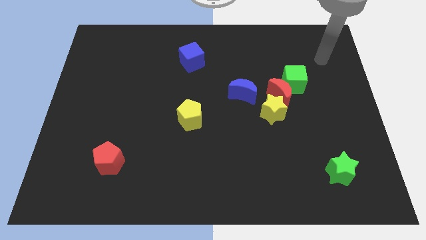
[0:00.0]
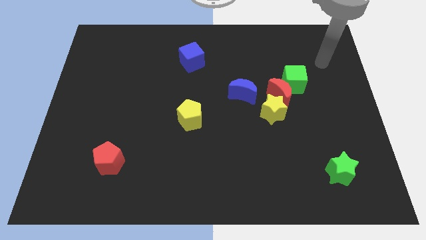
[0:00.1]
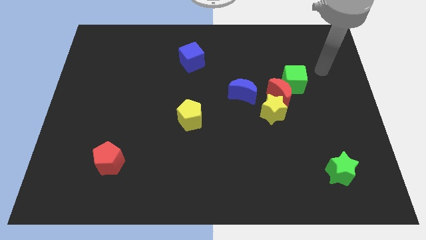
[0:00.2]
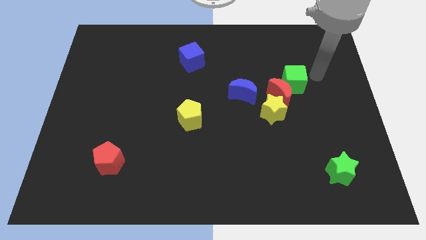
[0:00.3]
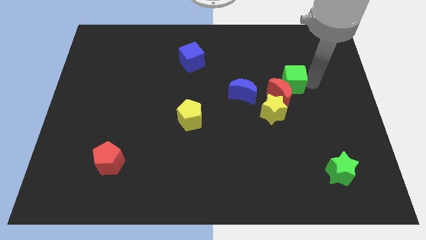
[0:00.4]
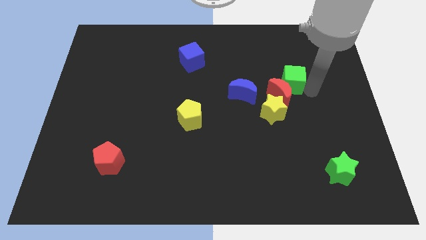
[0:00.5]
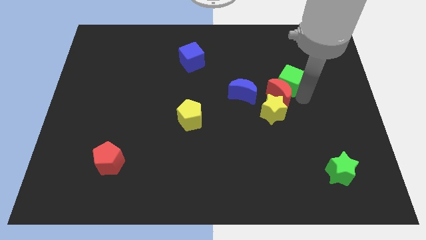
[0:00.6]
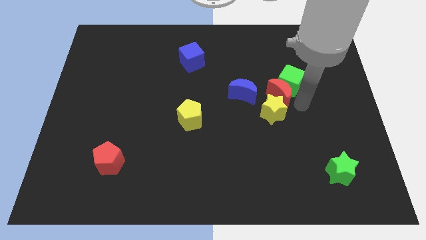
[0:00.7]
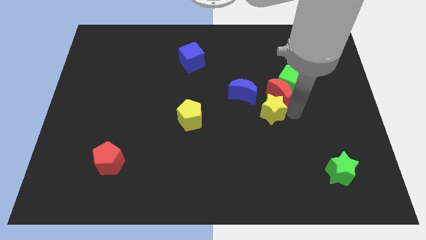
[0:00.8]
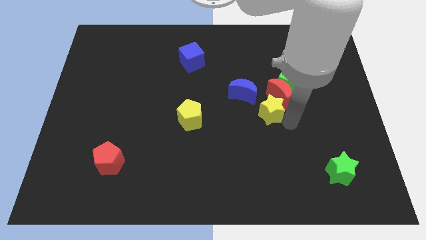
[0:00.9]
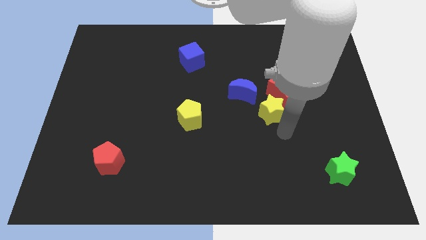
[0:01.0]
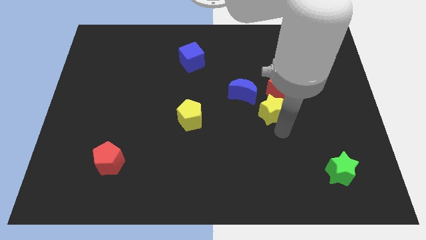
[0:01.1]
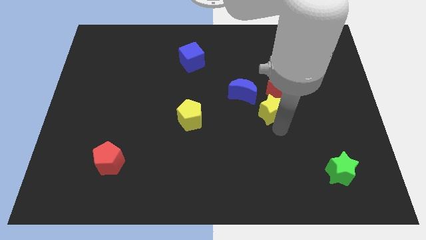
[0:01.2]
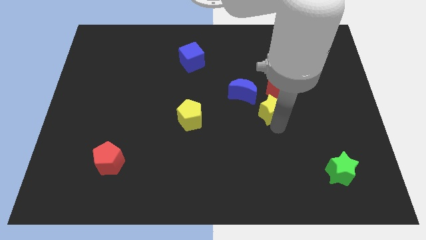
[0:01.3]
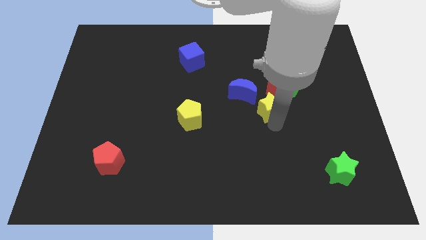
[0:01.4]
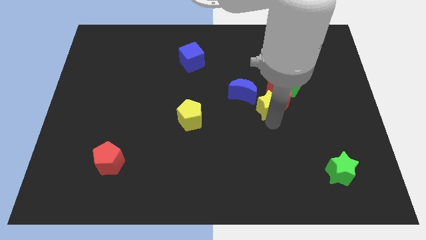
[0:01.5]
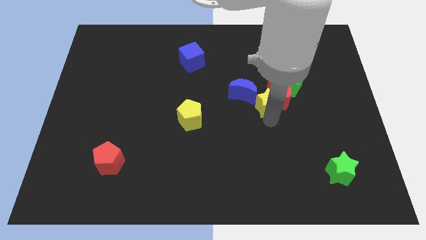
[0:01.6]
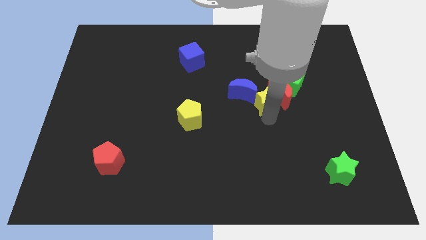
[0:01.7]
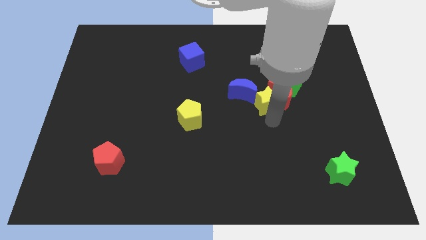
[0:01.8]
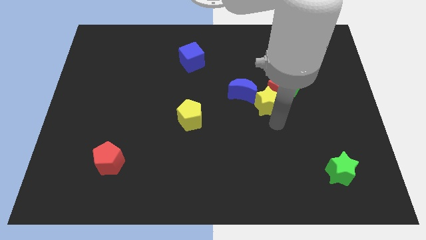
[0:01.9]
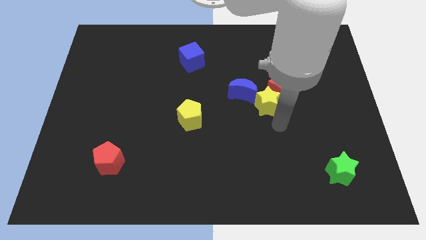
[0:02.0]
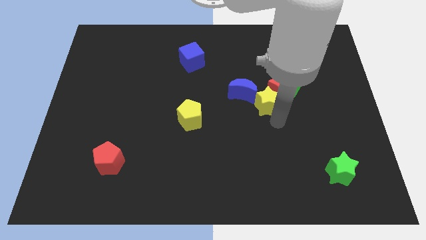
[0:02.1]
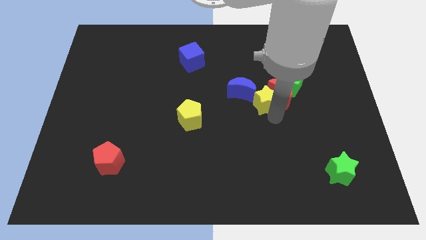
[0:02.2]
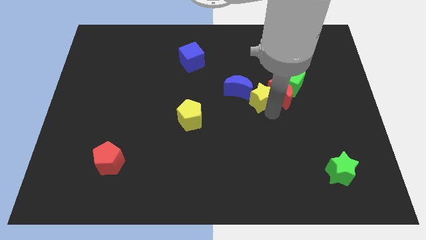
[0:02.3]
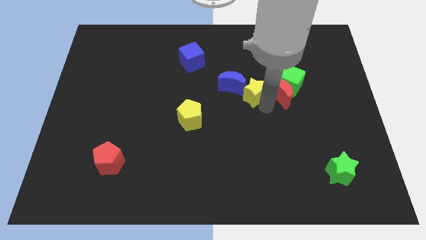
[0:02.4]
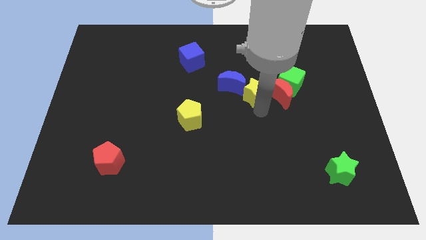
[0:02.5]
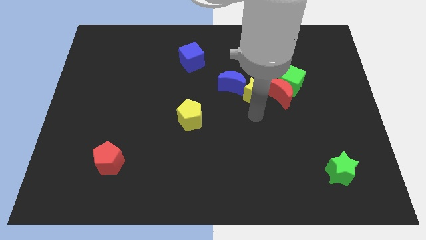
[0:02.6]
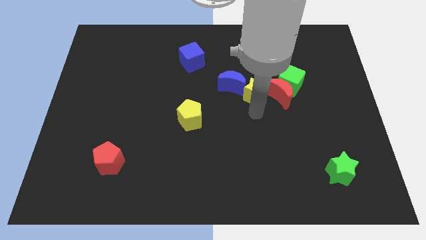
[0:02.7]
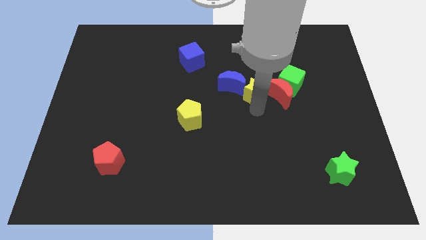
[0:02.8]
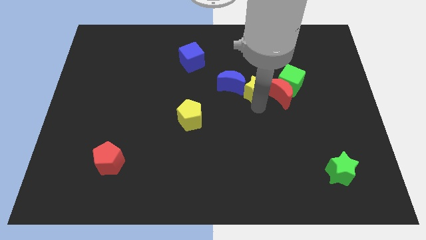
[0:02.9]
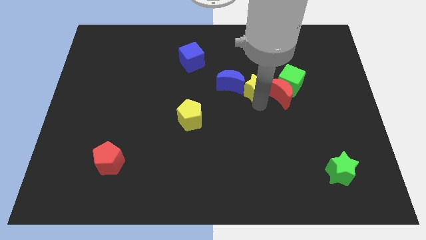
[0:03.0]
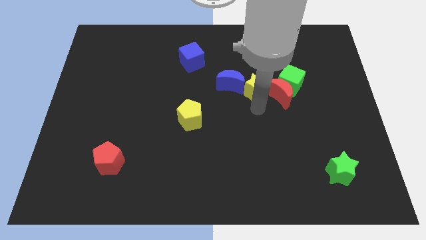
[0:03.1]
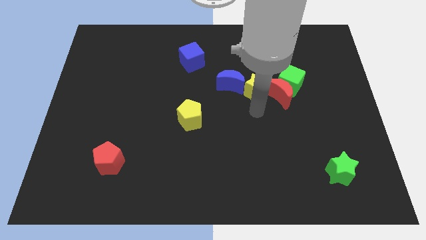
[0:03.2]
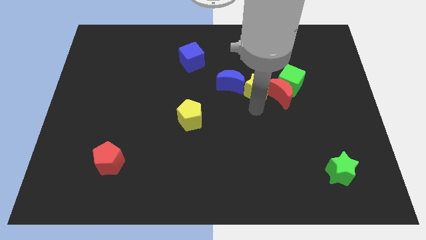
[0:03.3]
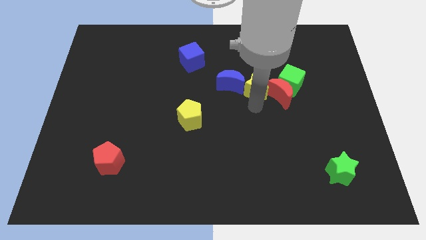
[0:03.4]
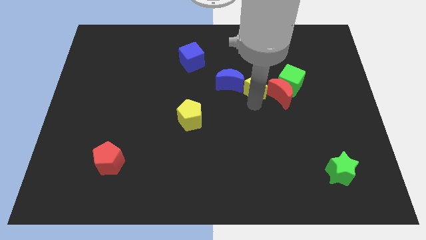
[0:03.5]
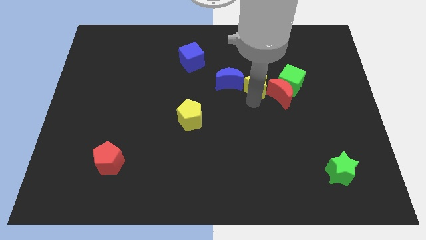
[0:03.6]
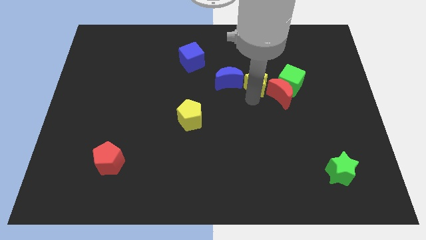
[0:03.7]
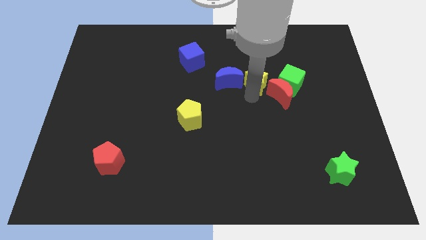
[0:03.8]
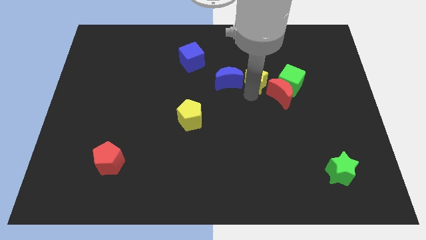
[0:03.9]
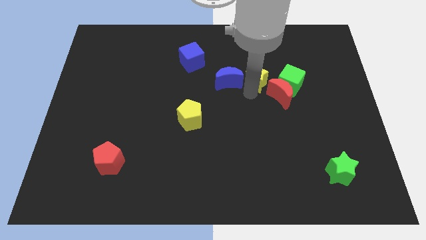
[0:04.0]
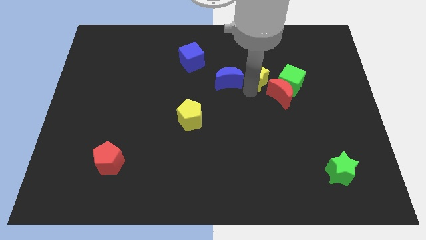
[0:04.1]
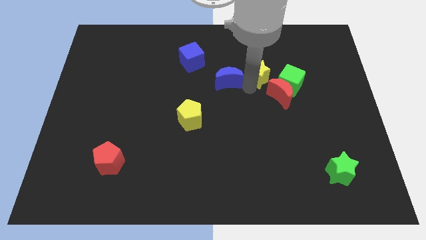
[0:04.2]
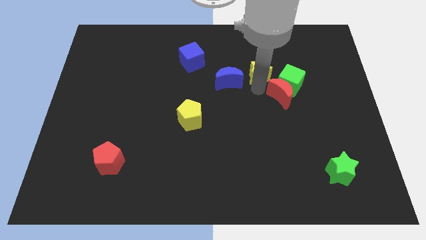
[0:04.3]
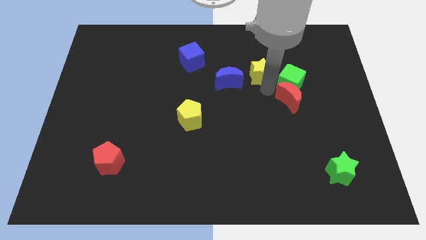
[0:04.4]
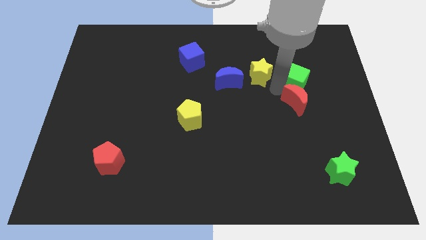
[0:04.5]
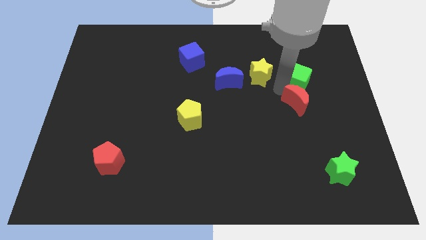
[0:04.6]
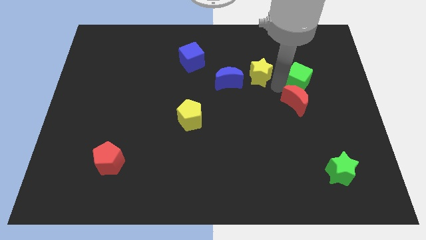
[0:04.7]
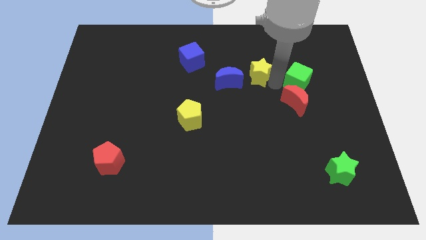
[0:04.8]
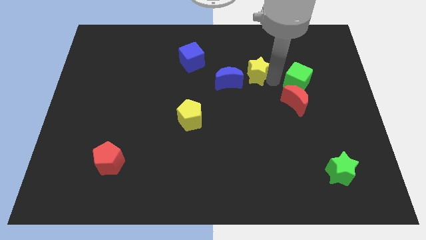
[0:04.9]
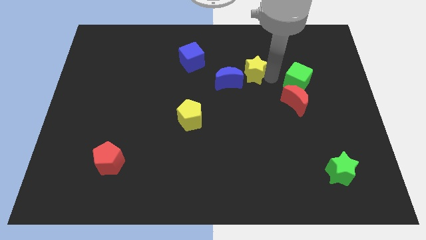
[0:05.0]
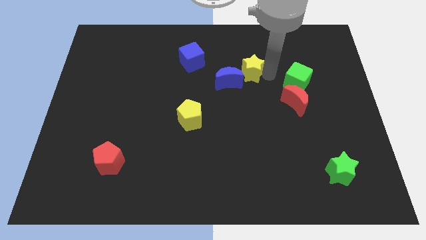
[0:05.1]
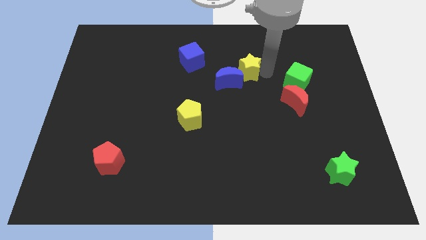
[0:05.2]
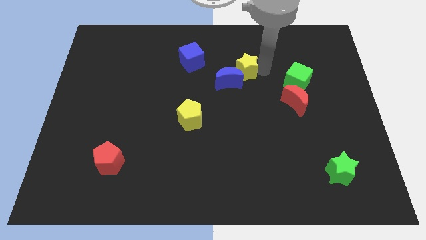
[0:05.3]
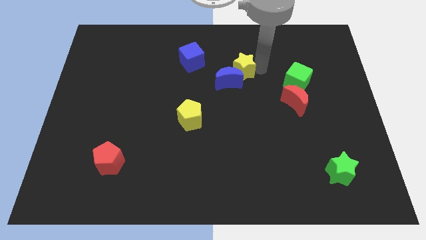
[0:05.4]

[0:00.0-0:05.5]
move the yellow star to the top of the blue moon

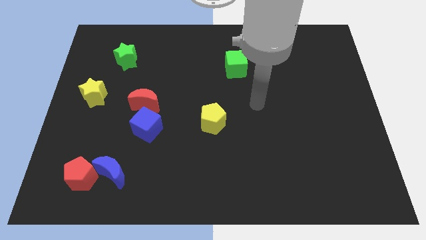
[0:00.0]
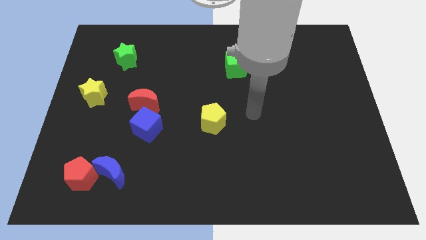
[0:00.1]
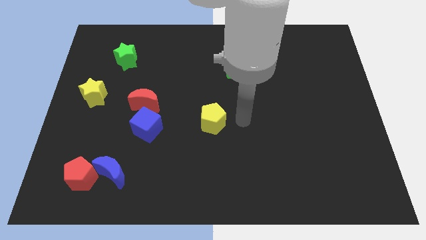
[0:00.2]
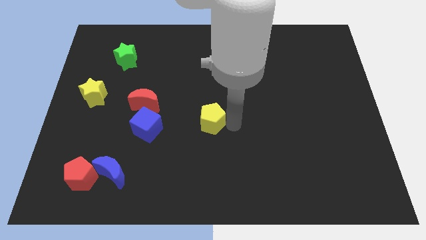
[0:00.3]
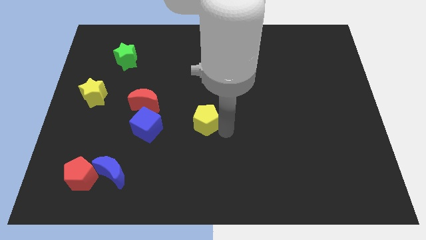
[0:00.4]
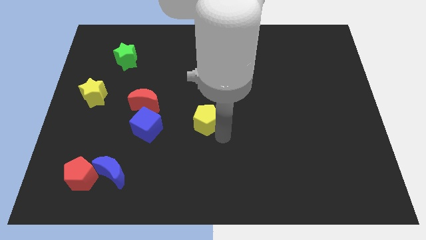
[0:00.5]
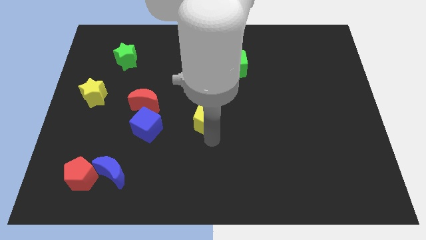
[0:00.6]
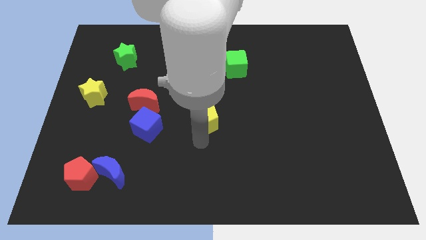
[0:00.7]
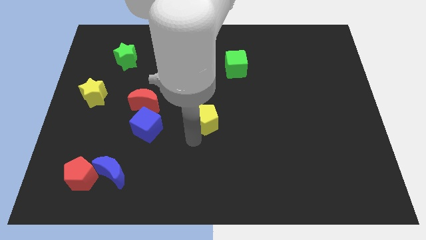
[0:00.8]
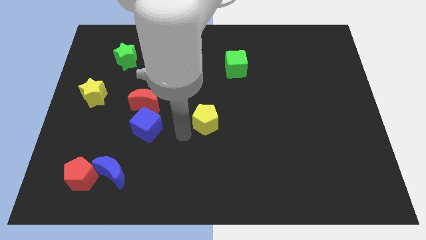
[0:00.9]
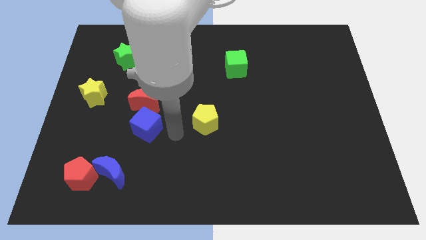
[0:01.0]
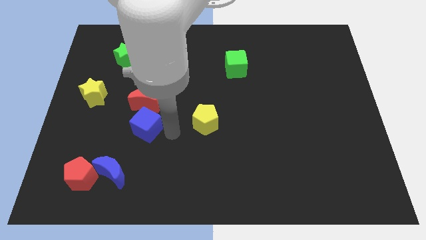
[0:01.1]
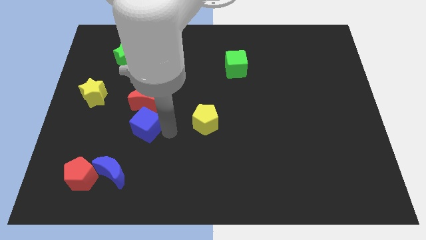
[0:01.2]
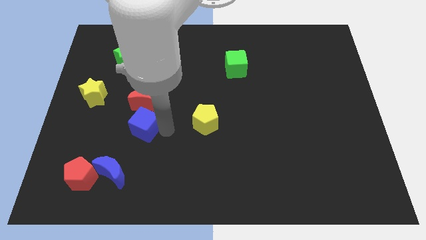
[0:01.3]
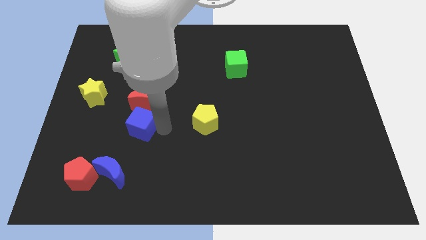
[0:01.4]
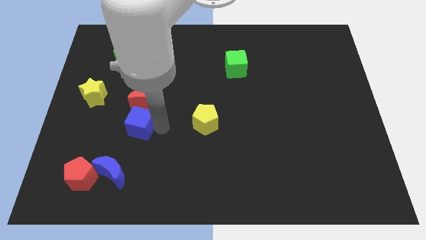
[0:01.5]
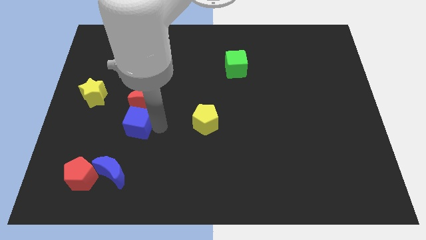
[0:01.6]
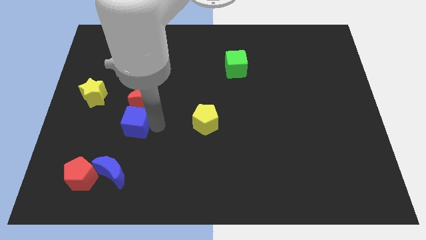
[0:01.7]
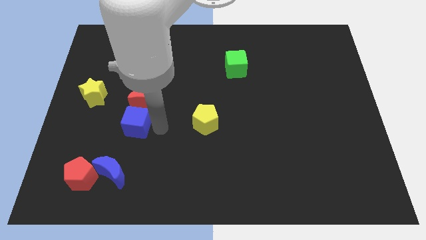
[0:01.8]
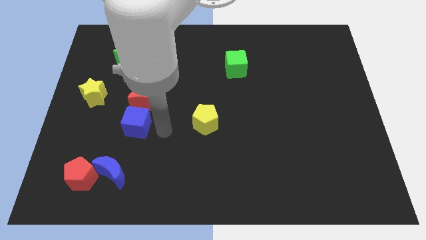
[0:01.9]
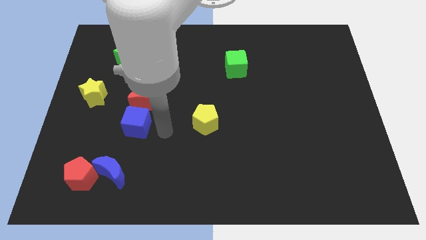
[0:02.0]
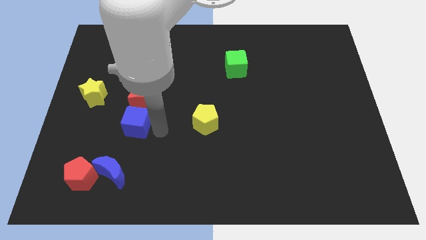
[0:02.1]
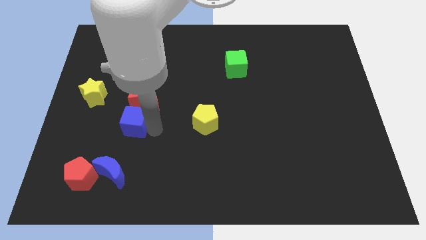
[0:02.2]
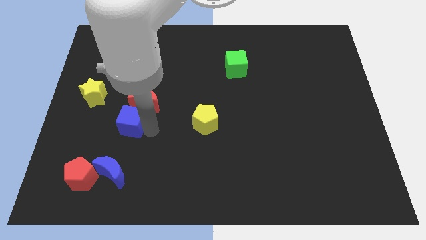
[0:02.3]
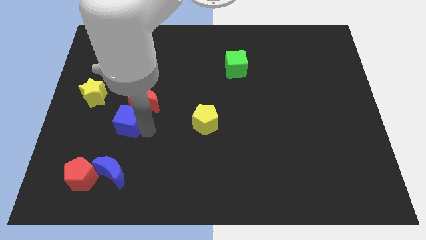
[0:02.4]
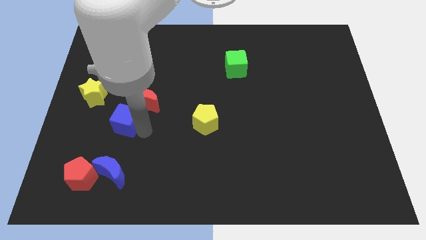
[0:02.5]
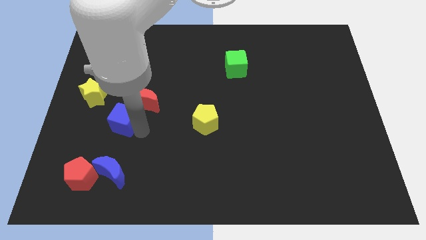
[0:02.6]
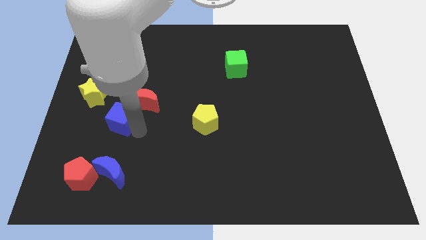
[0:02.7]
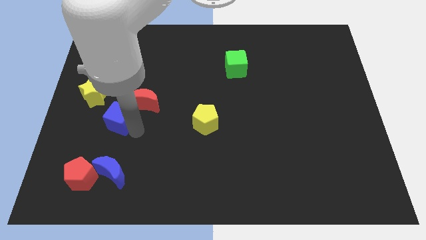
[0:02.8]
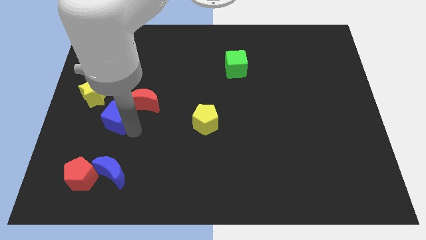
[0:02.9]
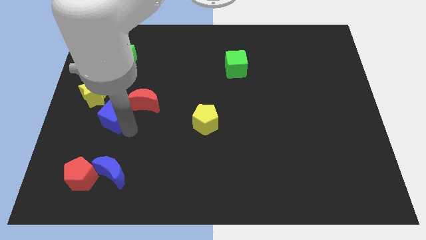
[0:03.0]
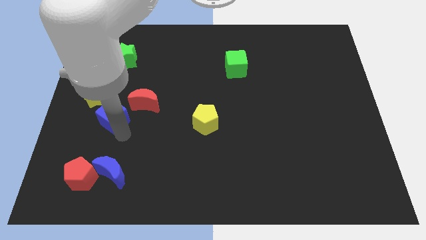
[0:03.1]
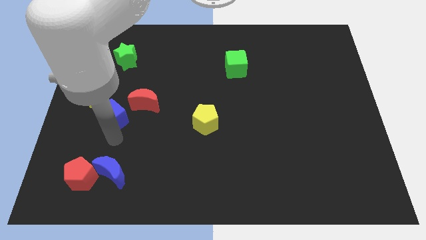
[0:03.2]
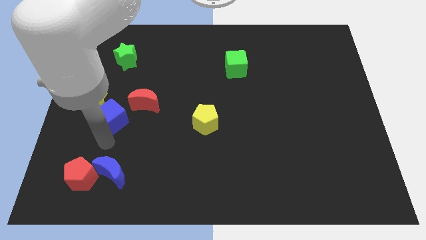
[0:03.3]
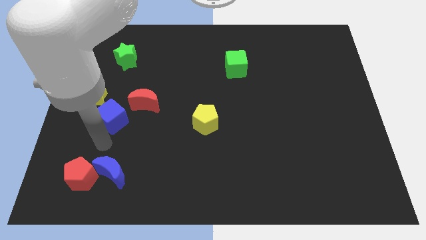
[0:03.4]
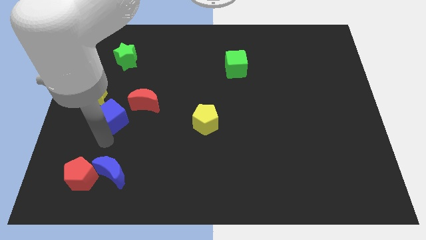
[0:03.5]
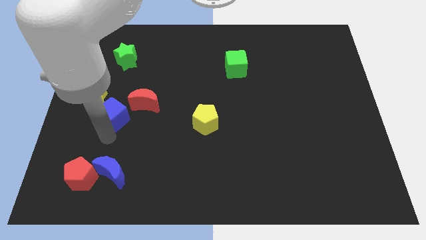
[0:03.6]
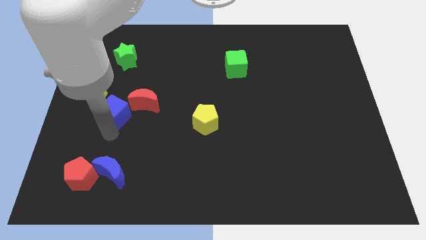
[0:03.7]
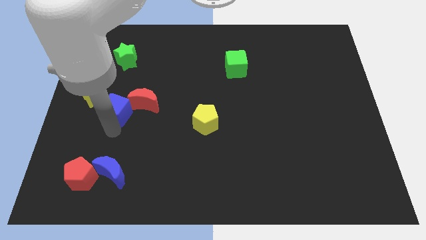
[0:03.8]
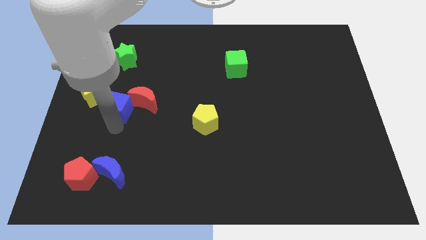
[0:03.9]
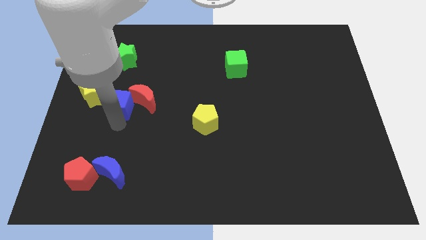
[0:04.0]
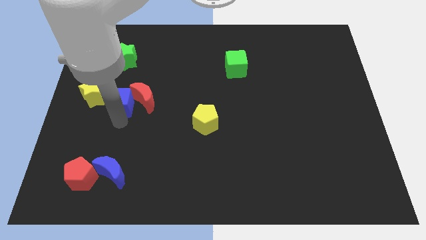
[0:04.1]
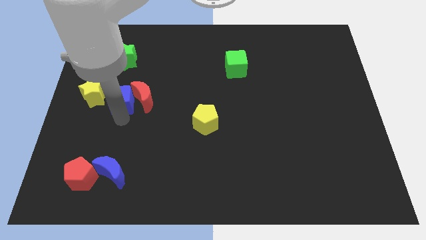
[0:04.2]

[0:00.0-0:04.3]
slide the blue cube to the top left side of the red moon
